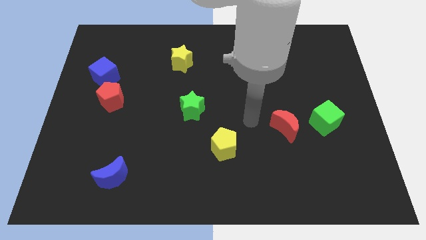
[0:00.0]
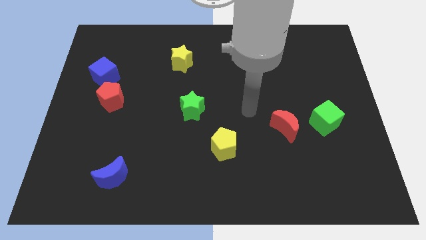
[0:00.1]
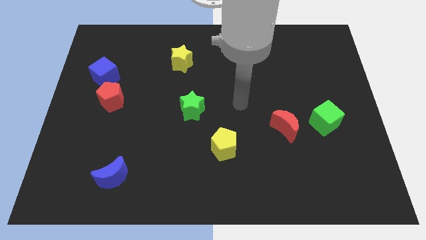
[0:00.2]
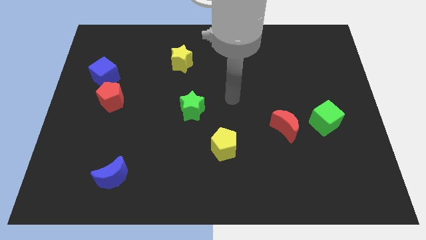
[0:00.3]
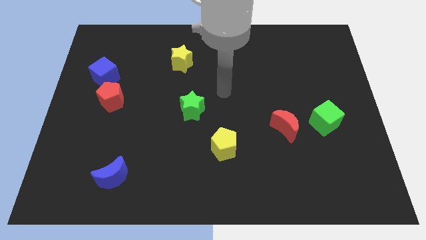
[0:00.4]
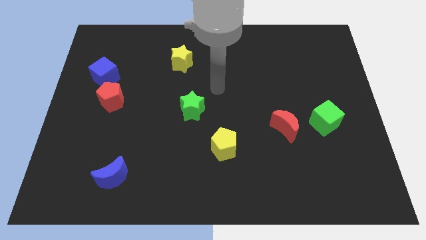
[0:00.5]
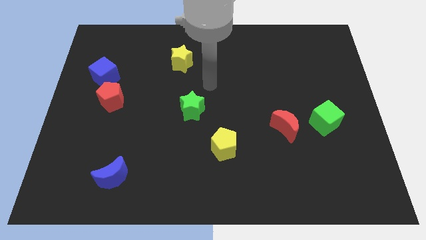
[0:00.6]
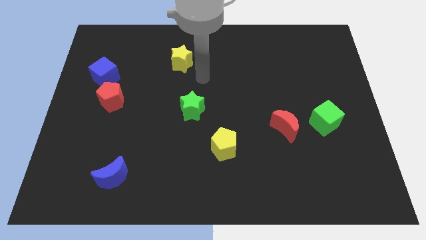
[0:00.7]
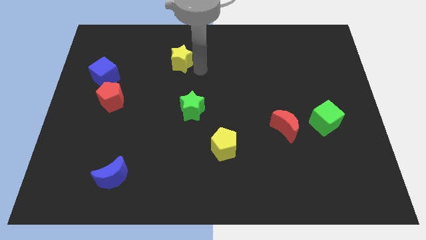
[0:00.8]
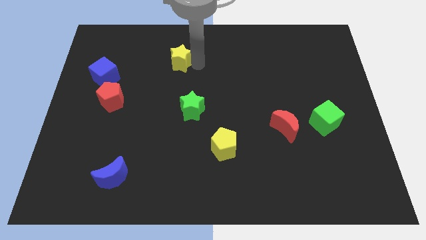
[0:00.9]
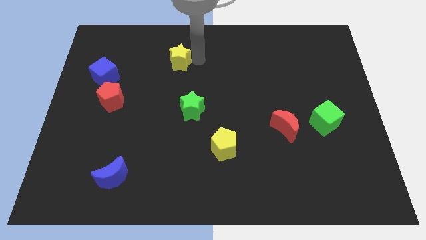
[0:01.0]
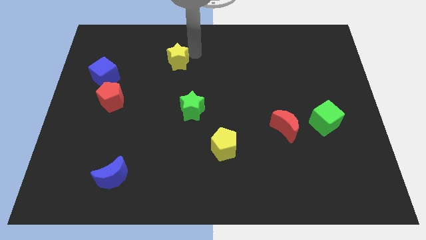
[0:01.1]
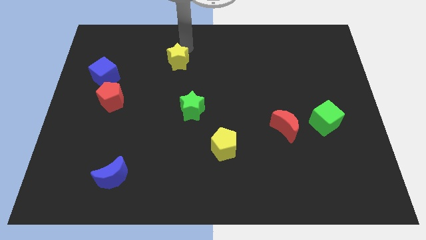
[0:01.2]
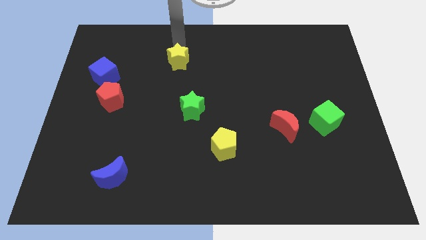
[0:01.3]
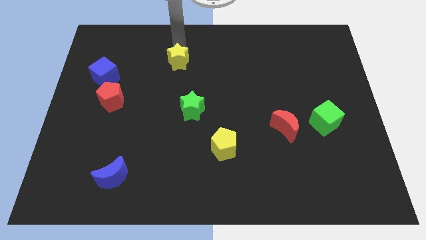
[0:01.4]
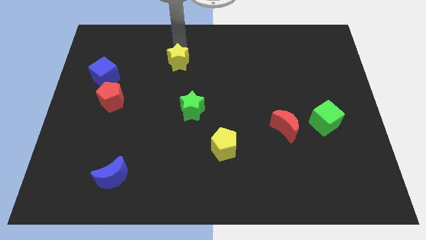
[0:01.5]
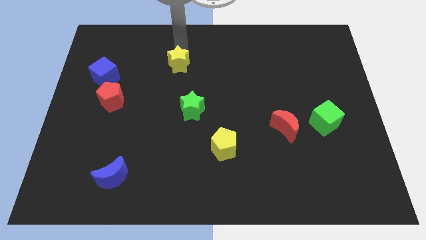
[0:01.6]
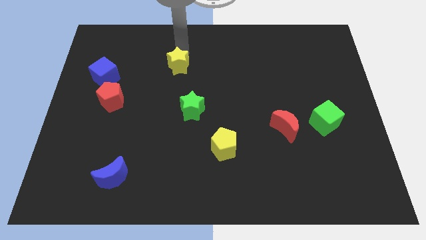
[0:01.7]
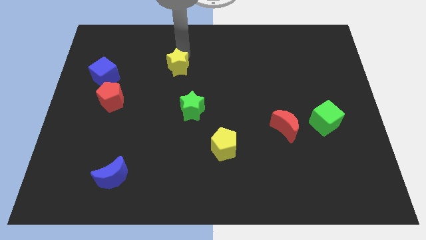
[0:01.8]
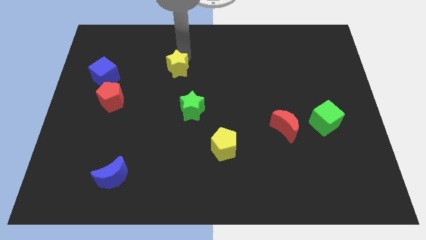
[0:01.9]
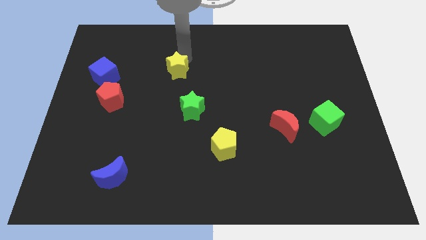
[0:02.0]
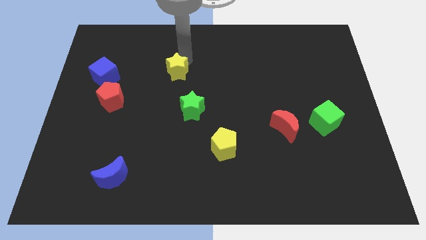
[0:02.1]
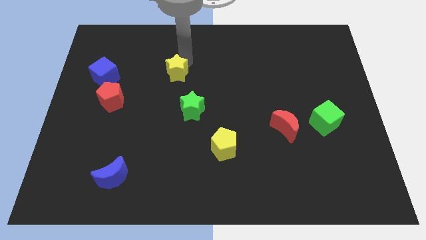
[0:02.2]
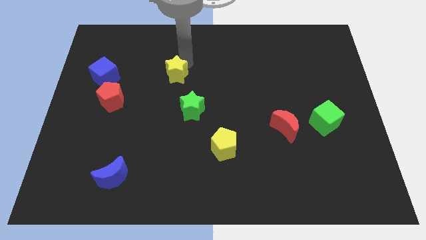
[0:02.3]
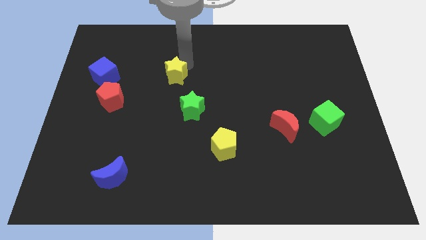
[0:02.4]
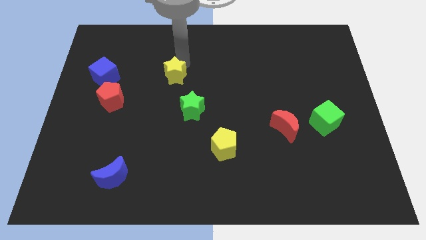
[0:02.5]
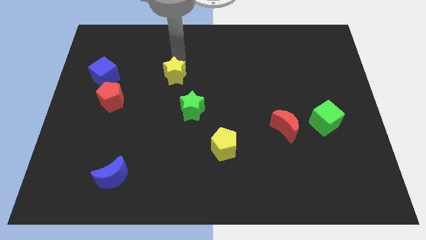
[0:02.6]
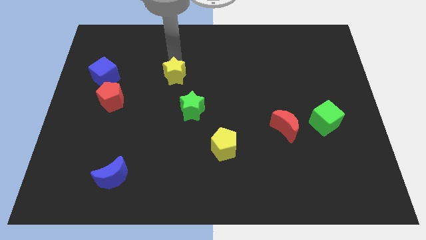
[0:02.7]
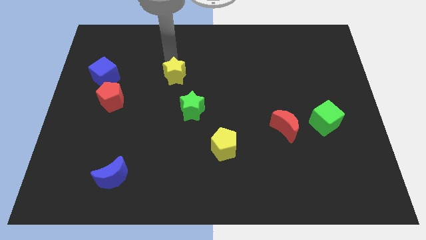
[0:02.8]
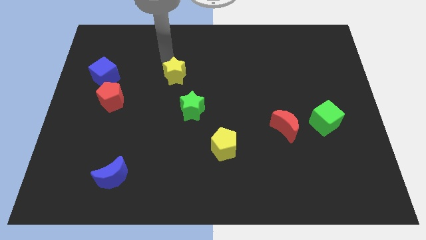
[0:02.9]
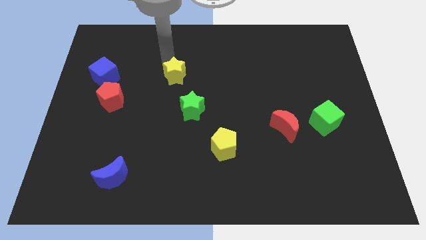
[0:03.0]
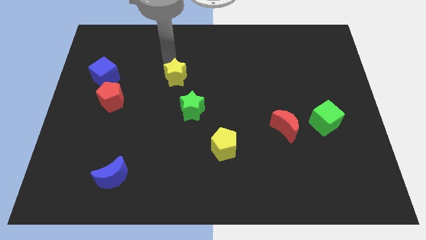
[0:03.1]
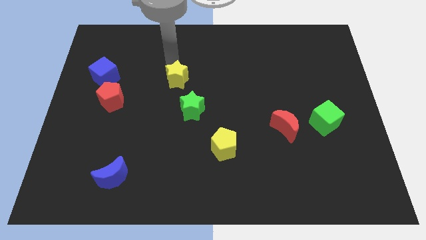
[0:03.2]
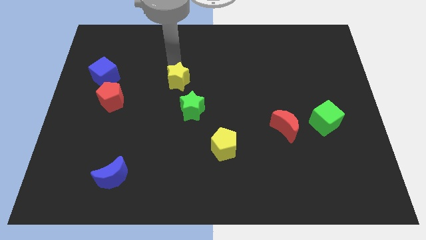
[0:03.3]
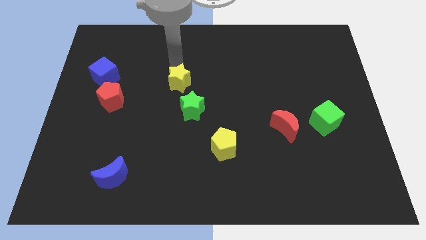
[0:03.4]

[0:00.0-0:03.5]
slightly slide the yellow star downwards

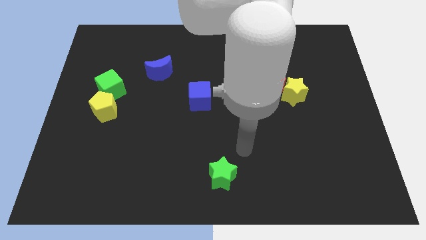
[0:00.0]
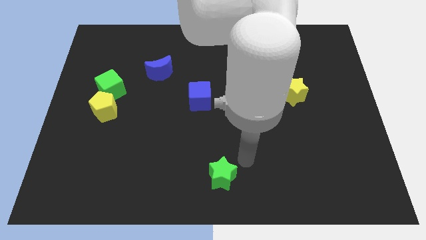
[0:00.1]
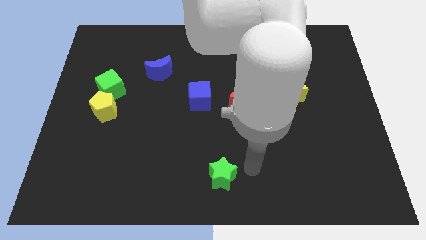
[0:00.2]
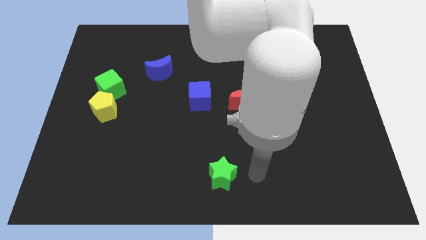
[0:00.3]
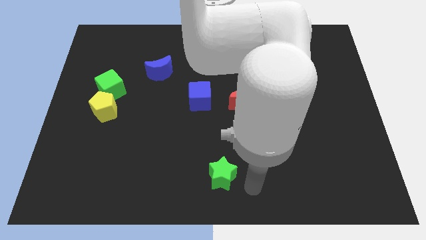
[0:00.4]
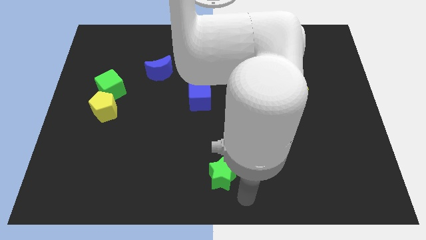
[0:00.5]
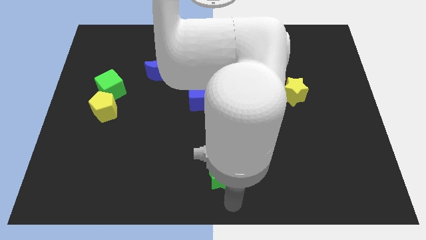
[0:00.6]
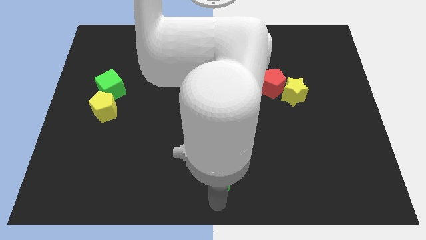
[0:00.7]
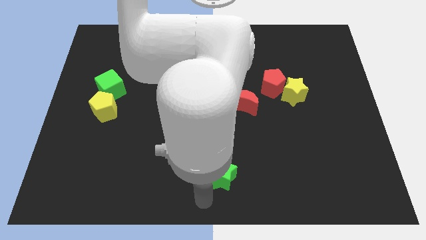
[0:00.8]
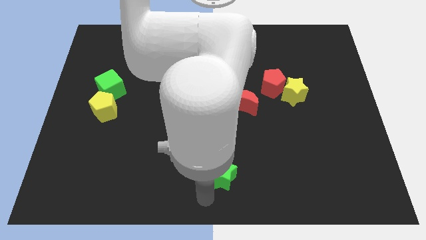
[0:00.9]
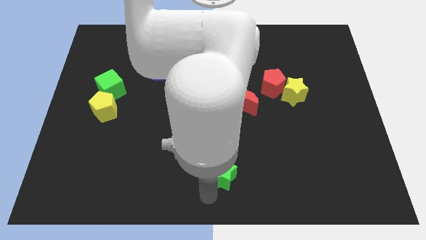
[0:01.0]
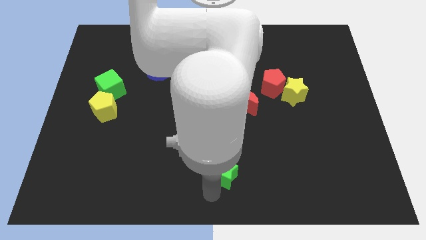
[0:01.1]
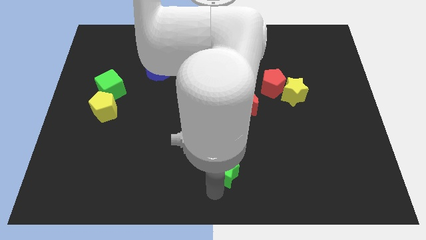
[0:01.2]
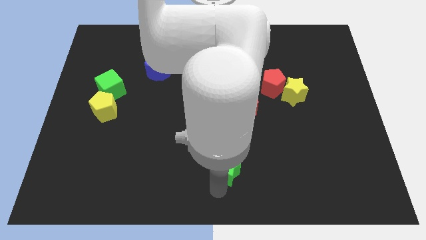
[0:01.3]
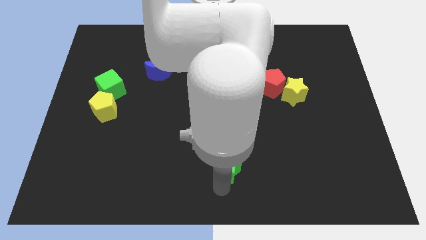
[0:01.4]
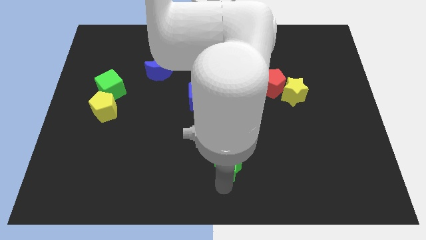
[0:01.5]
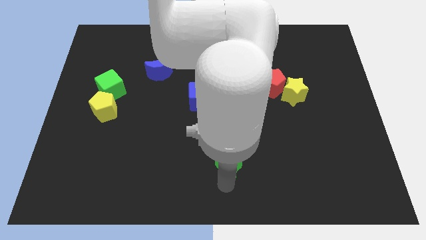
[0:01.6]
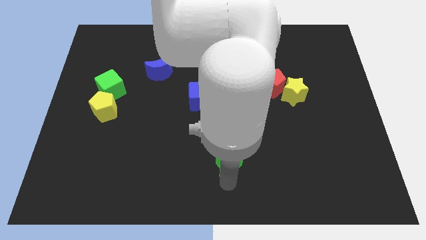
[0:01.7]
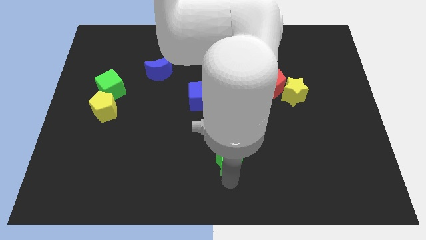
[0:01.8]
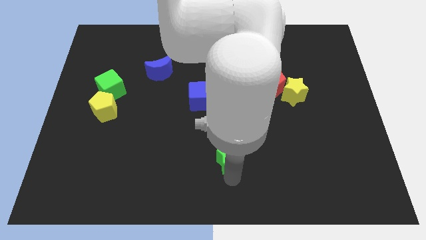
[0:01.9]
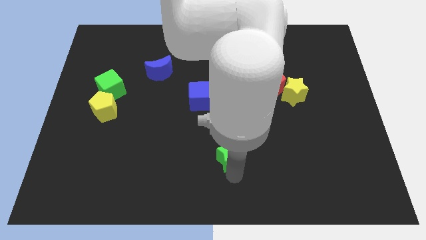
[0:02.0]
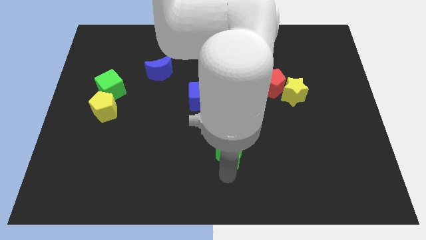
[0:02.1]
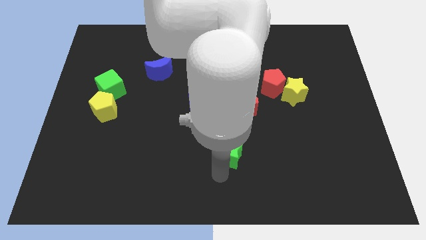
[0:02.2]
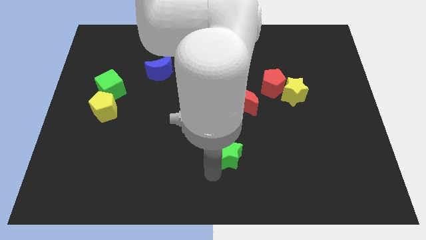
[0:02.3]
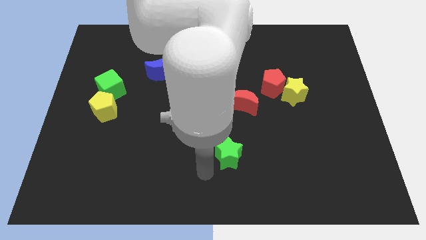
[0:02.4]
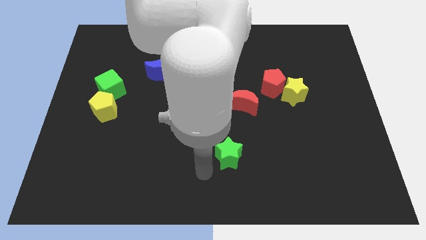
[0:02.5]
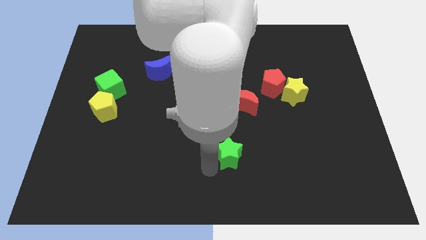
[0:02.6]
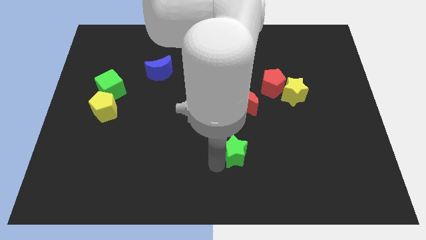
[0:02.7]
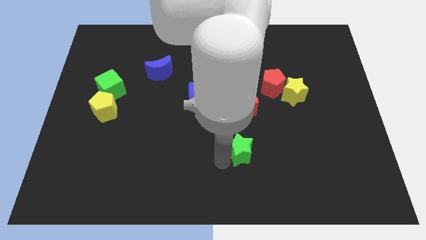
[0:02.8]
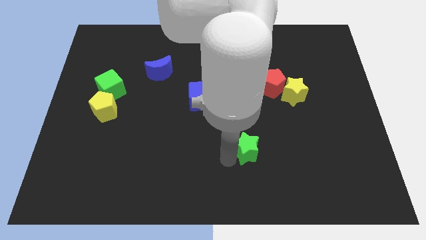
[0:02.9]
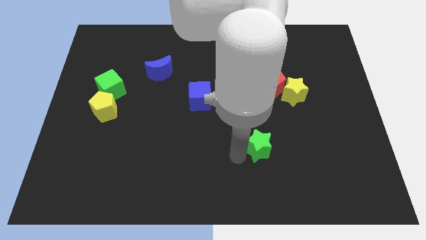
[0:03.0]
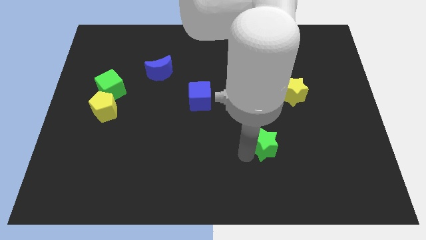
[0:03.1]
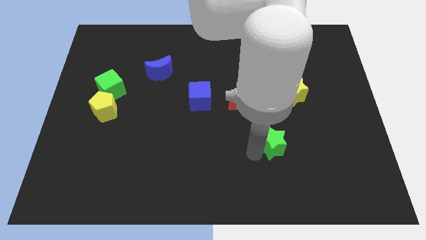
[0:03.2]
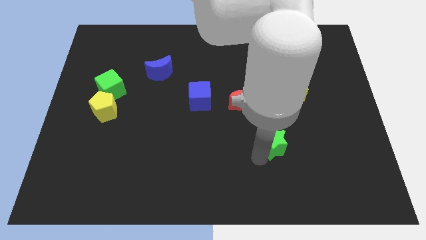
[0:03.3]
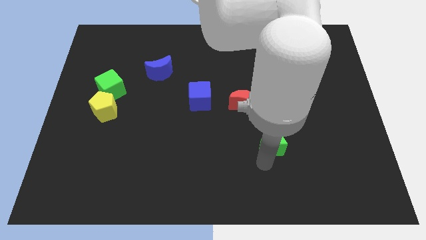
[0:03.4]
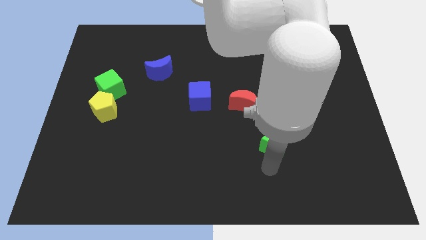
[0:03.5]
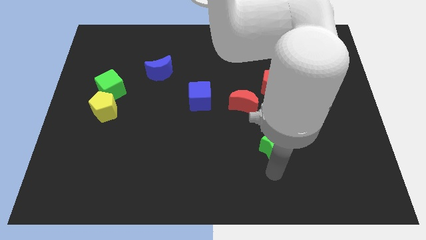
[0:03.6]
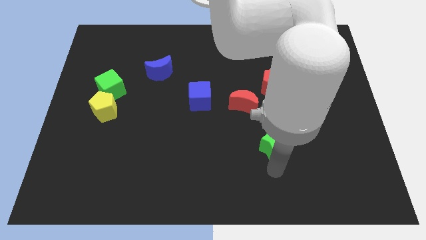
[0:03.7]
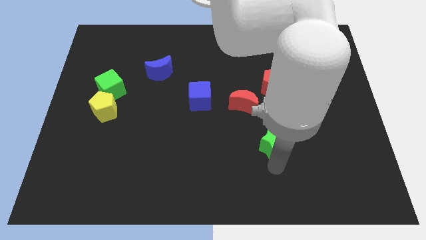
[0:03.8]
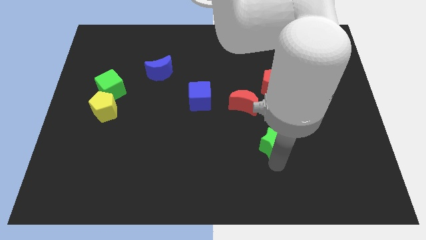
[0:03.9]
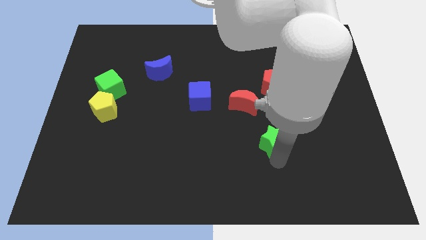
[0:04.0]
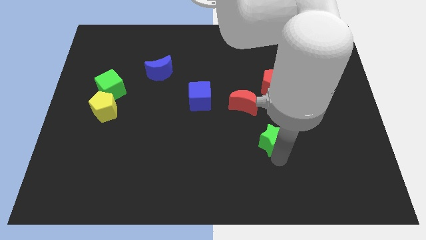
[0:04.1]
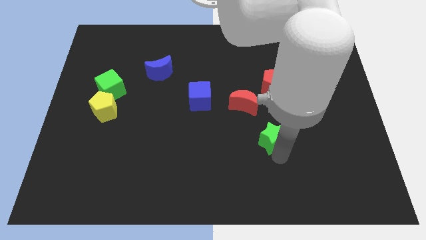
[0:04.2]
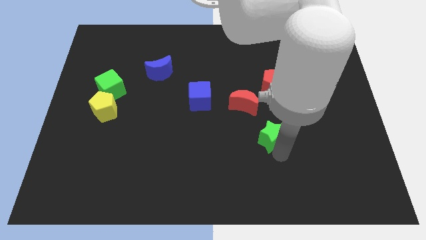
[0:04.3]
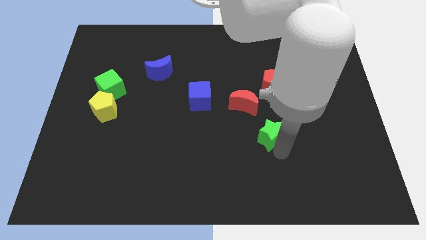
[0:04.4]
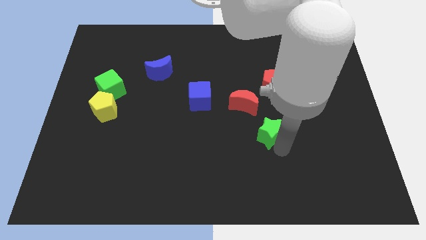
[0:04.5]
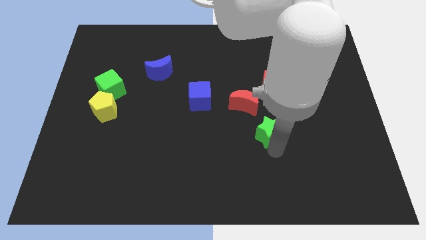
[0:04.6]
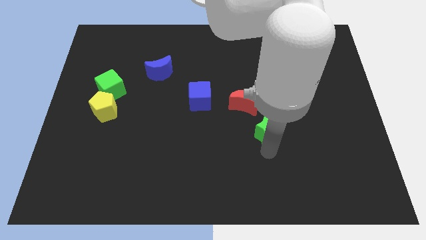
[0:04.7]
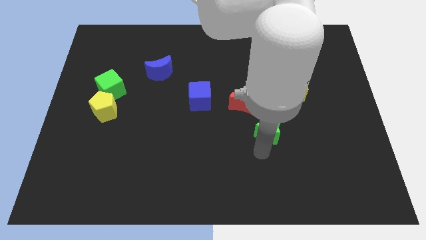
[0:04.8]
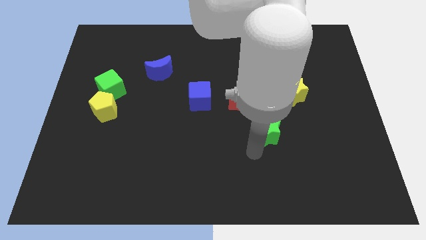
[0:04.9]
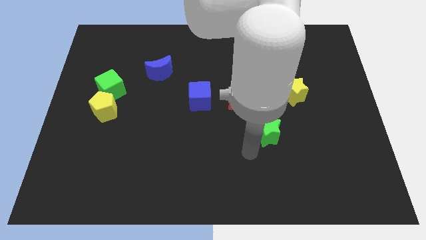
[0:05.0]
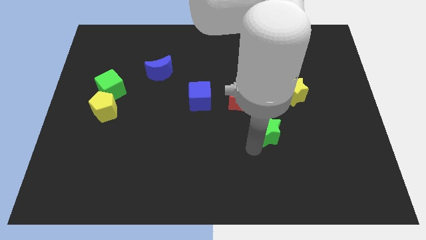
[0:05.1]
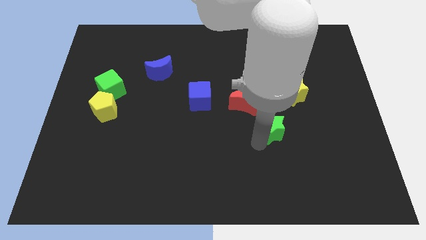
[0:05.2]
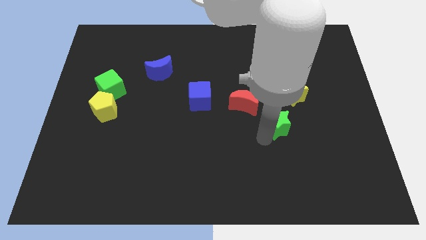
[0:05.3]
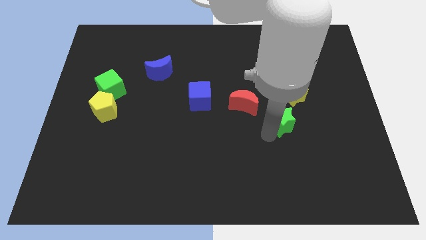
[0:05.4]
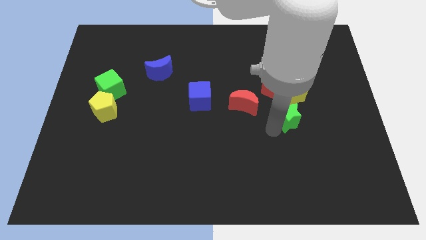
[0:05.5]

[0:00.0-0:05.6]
slide the green star up and right
